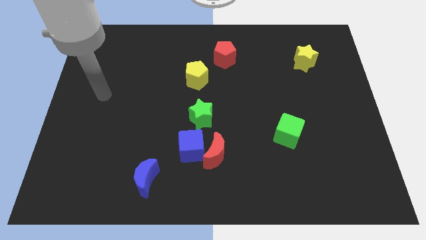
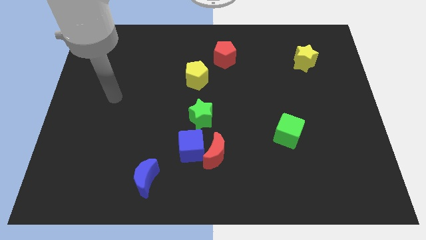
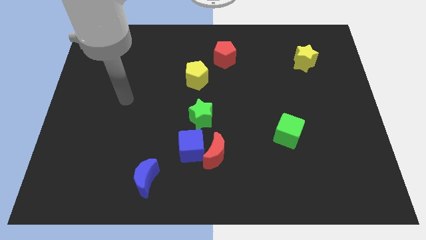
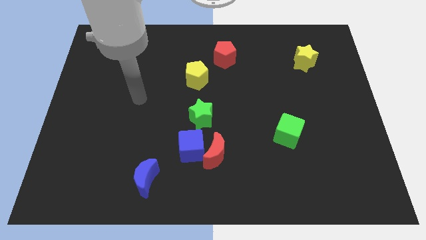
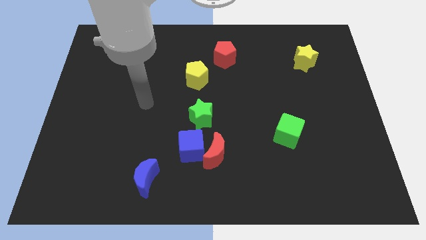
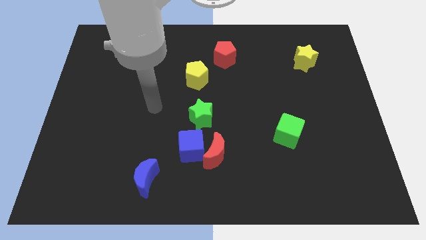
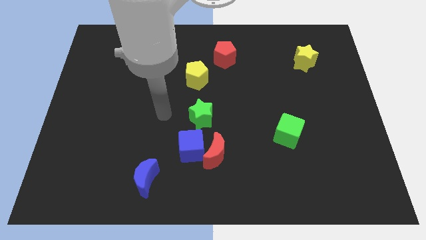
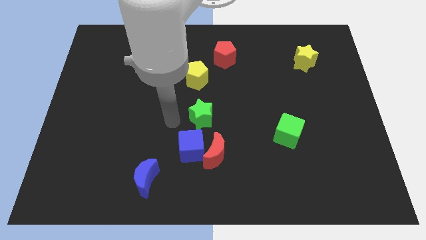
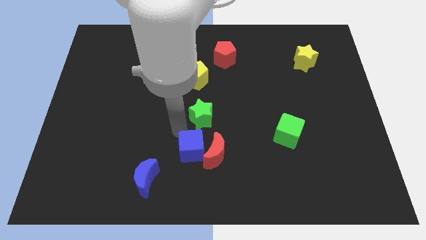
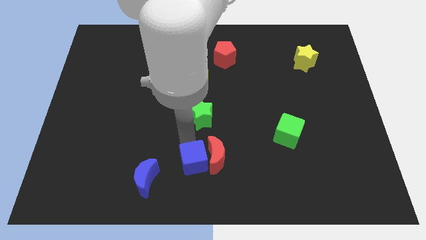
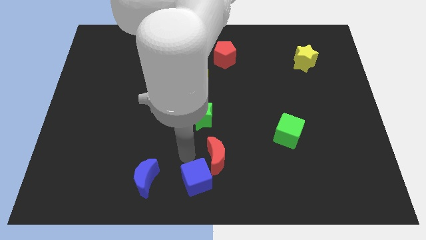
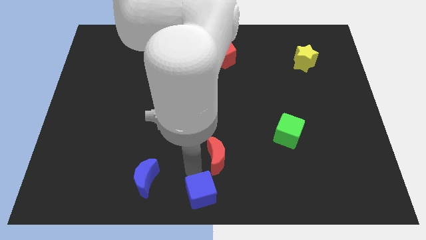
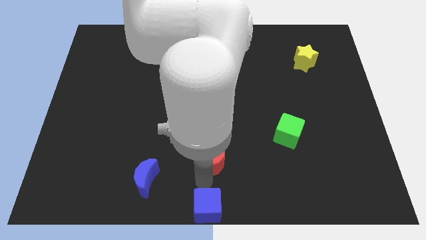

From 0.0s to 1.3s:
separate the red moon from the blue cube

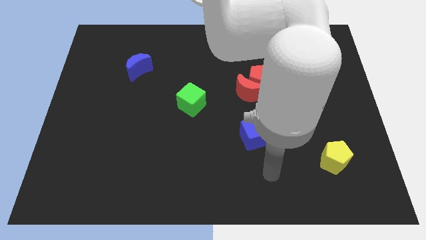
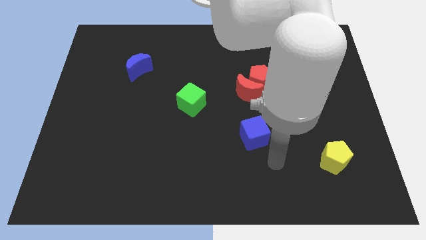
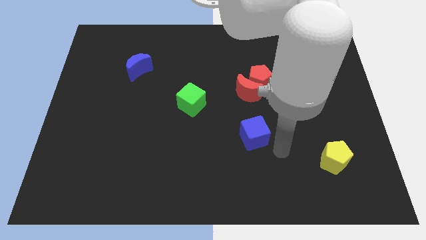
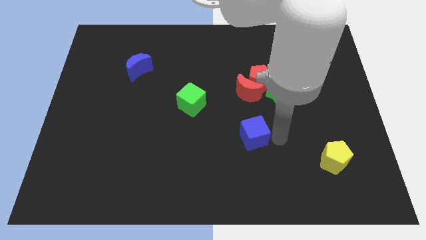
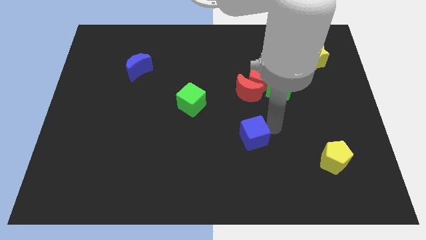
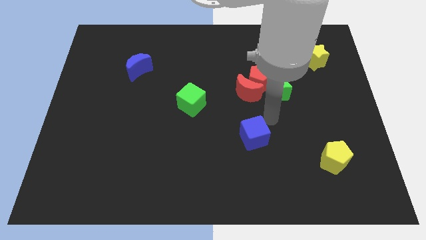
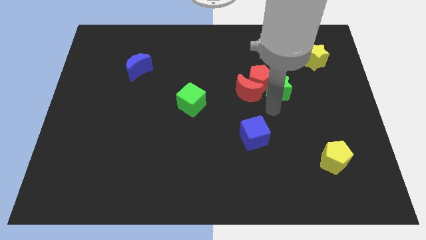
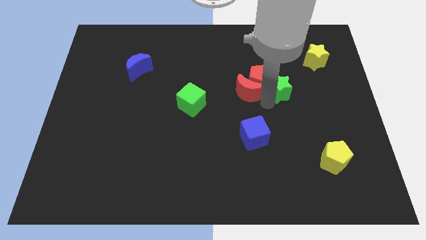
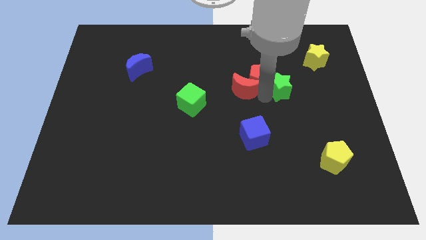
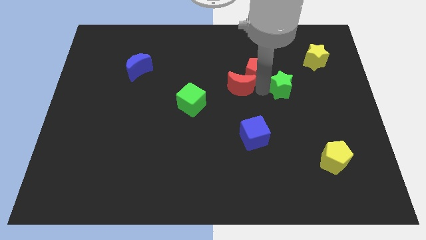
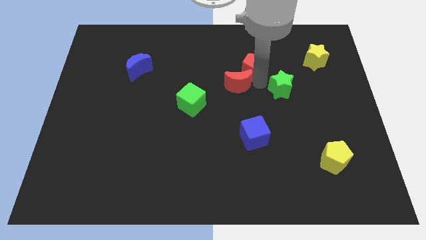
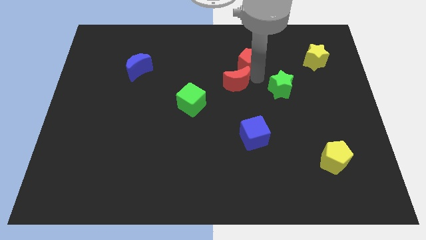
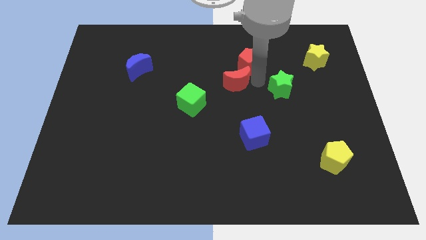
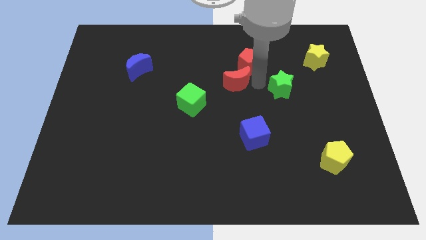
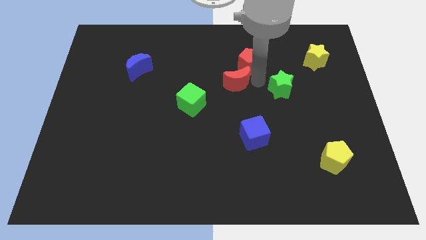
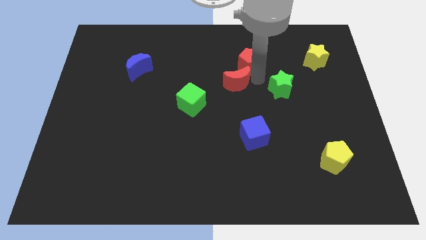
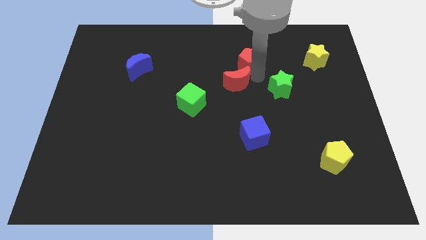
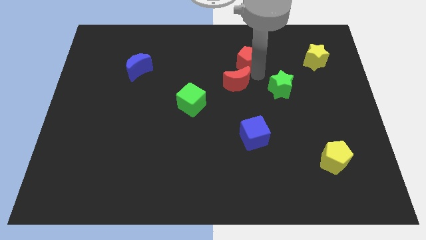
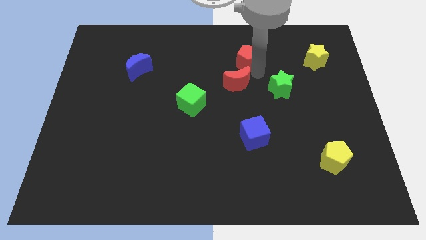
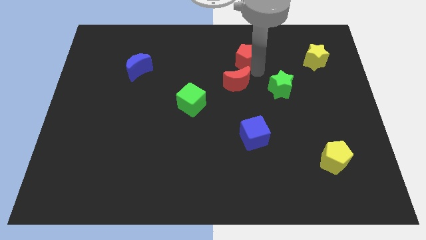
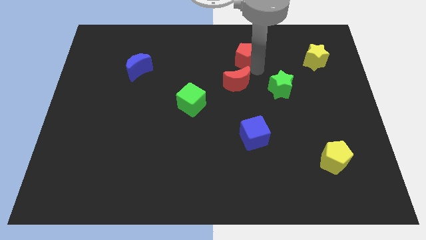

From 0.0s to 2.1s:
pull the red pentagon apart from the red moon and green star

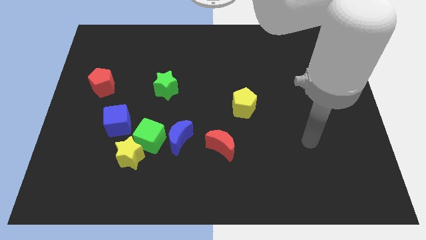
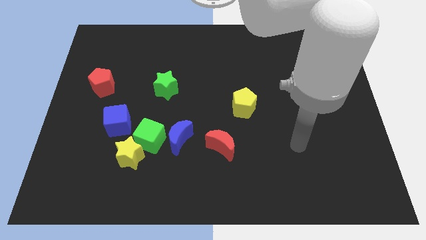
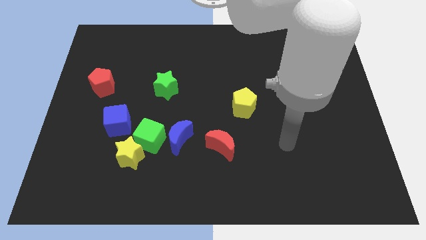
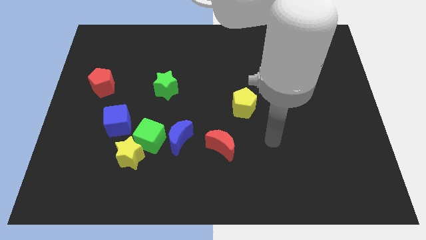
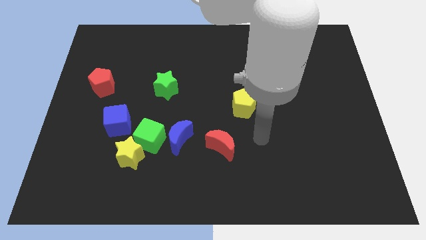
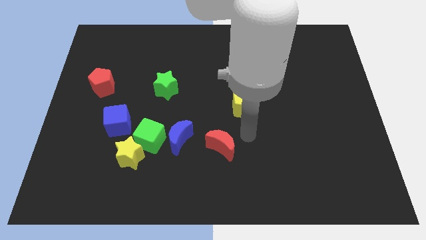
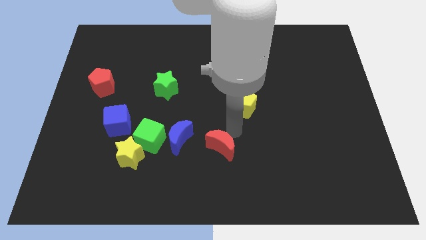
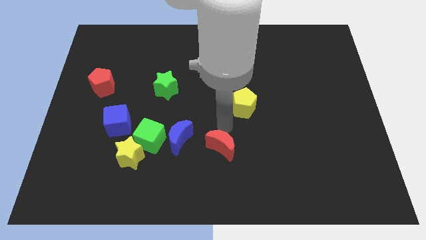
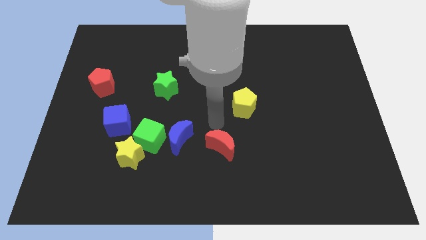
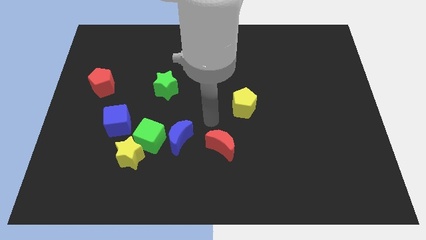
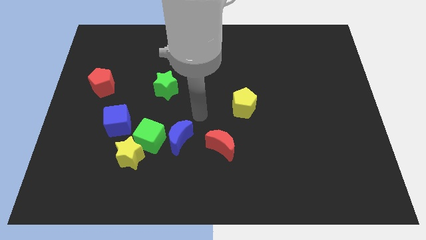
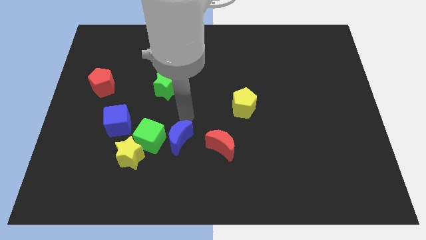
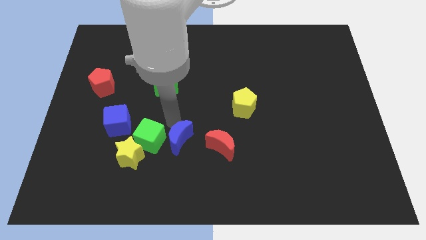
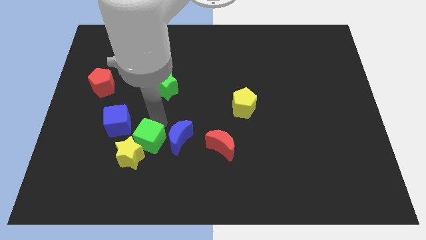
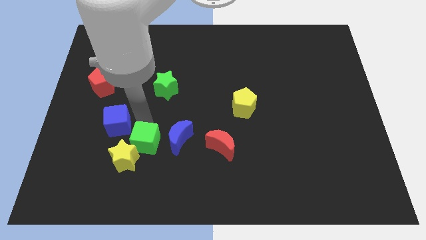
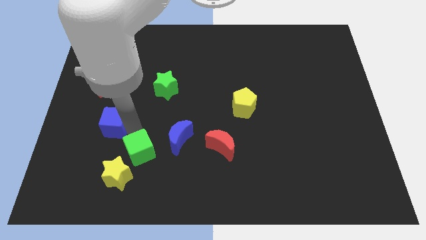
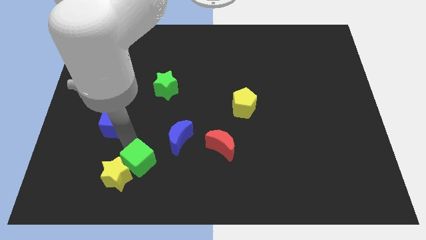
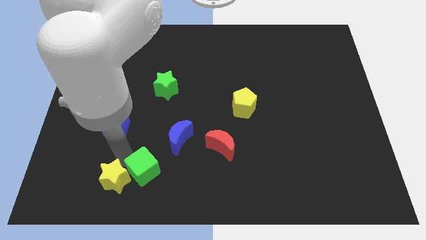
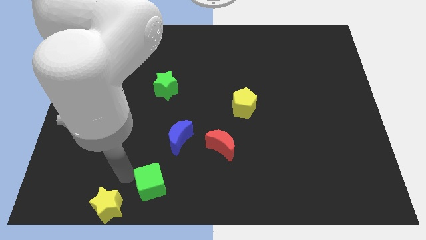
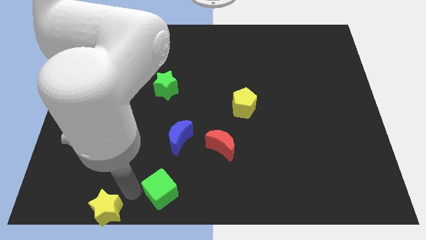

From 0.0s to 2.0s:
separate the green cube from the clump

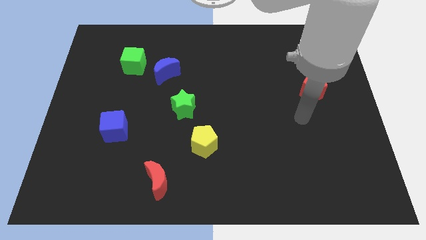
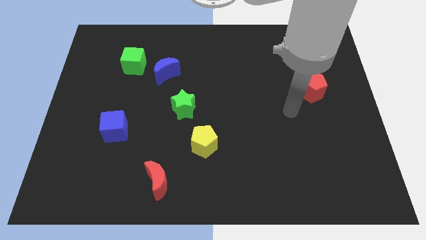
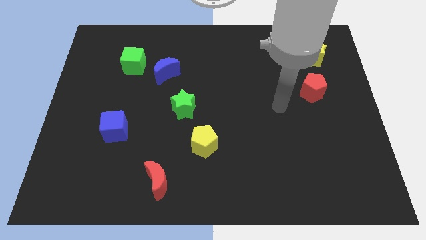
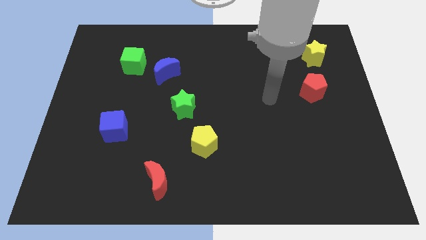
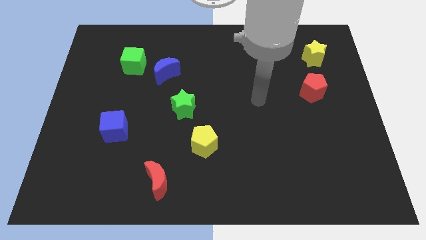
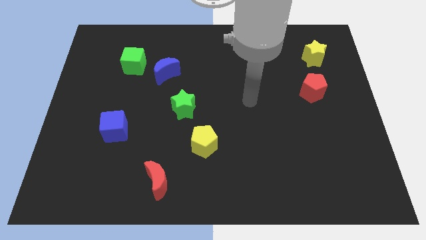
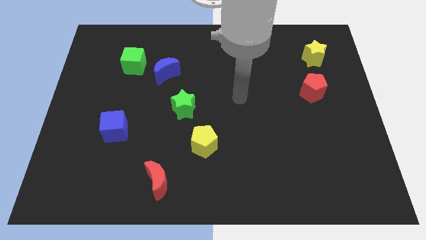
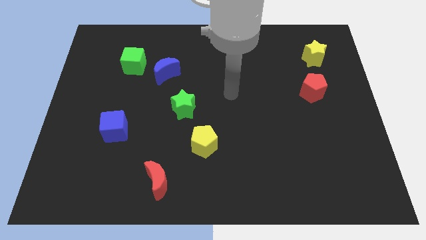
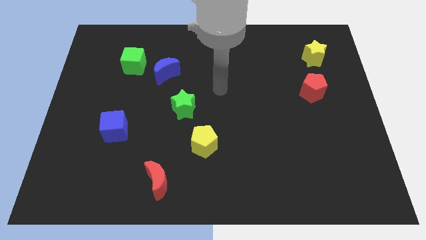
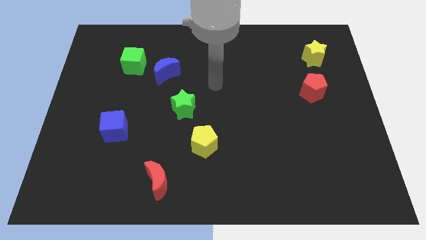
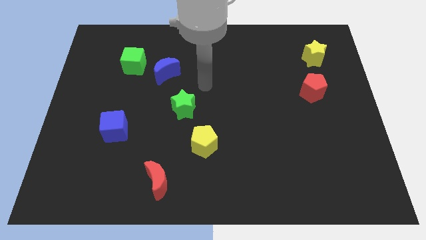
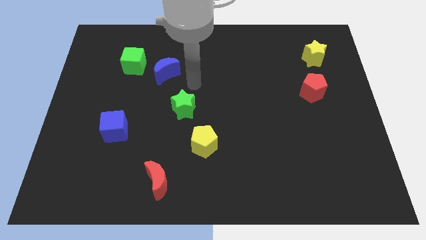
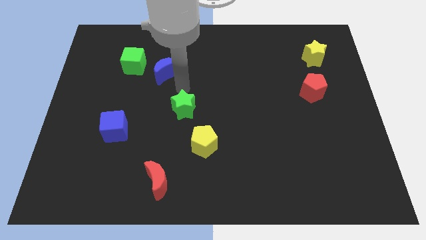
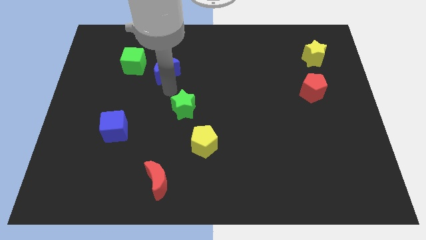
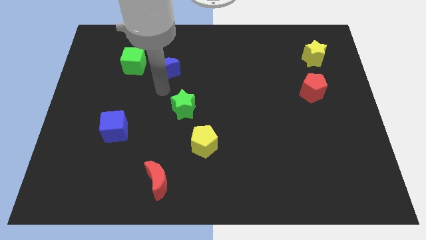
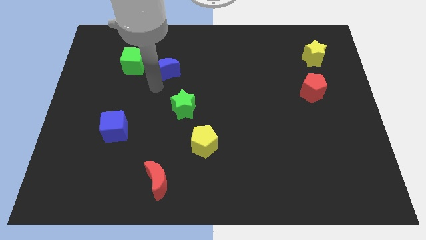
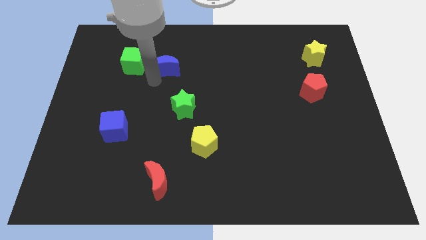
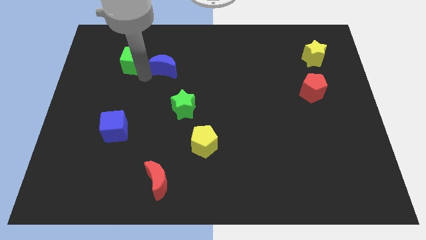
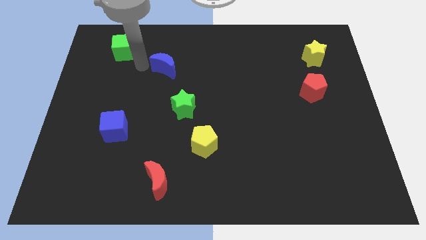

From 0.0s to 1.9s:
pull the blue moon apart from the green cube

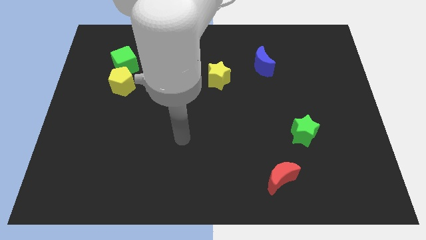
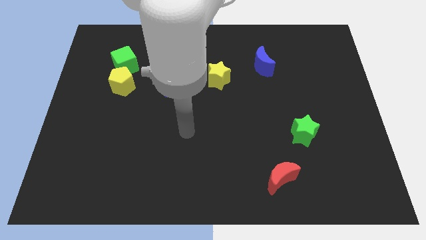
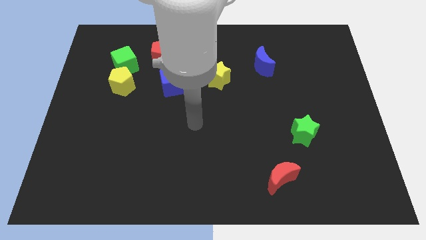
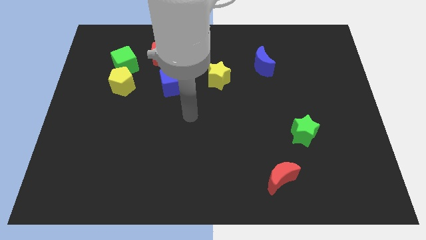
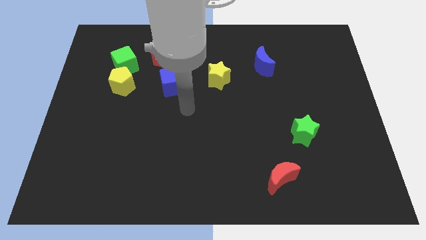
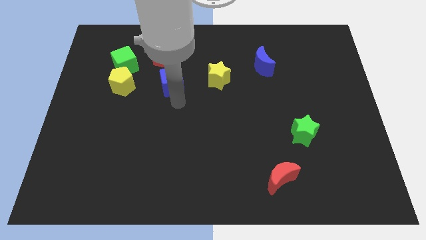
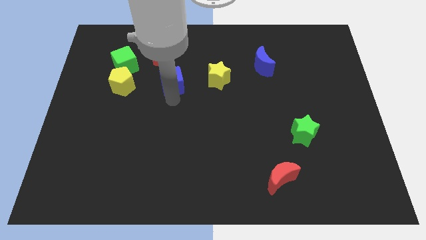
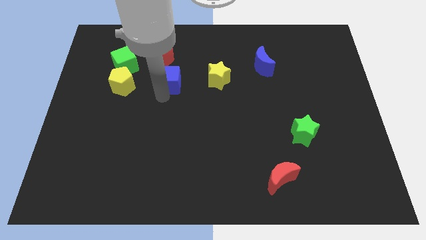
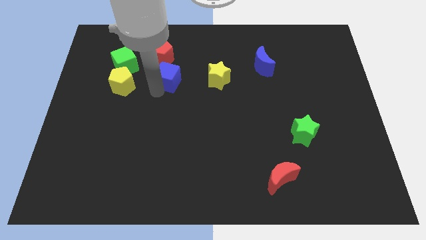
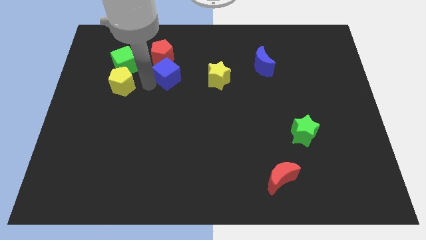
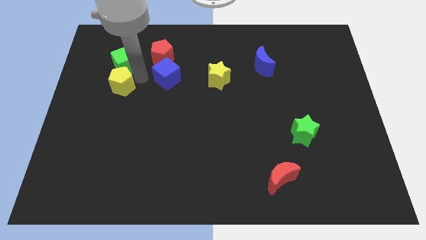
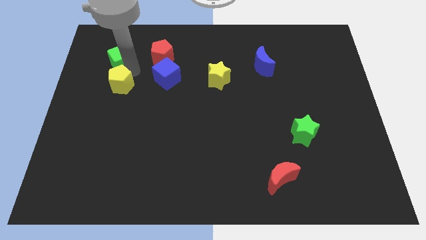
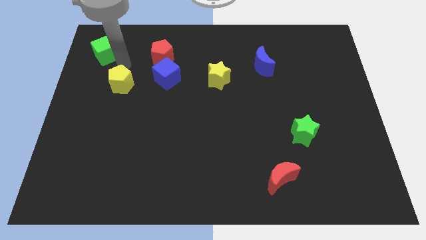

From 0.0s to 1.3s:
pull the yellow pentagon apart from the green cube

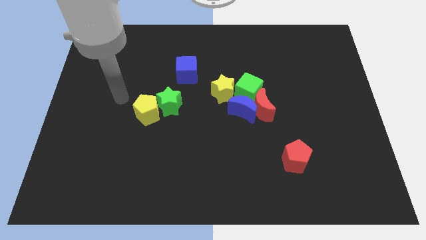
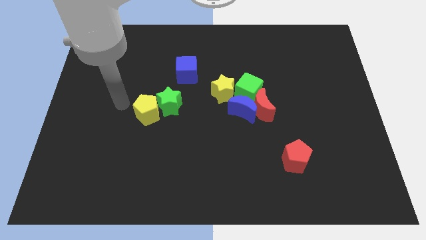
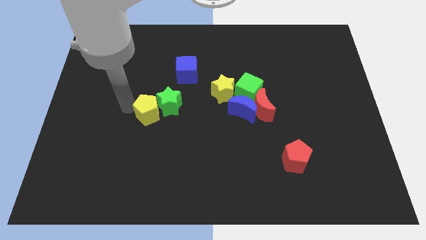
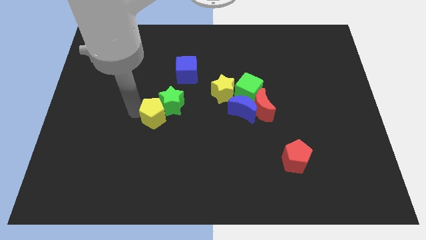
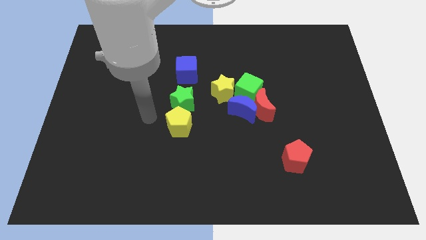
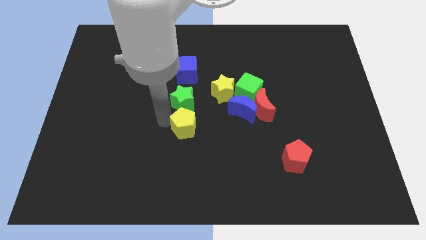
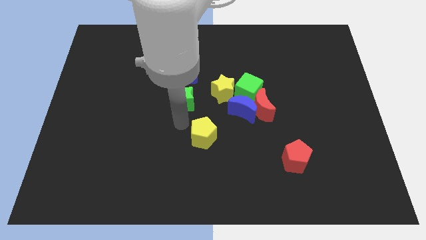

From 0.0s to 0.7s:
separate the green star from the yellow pentagon
